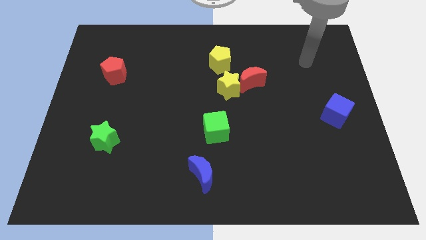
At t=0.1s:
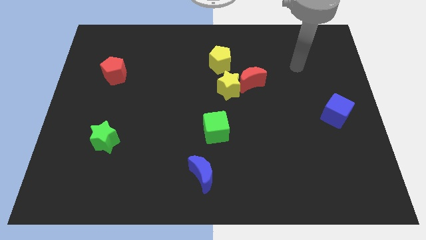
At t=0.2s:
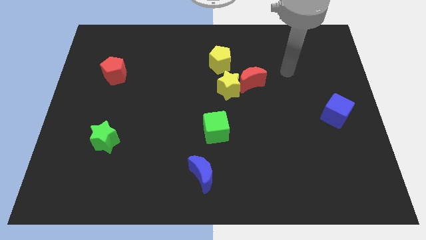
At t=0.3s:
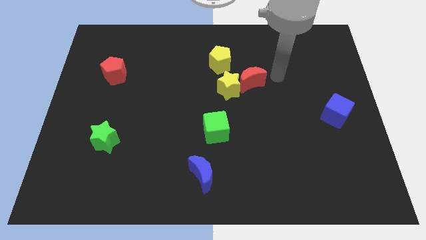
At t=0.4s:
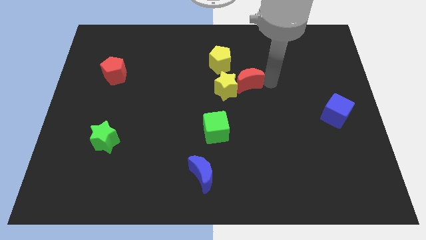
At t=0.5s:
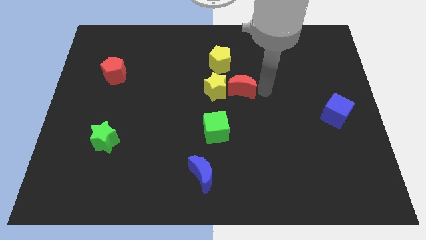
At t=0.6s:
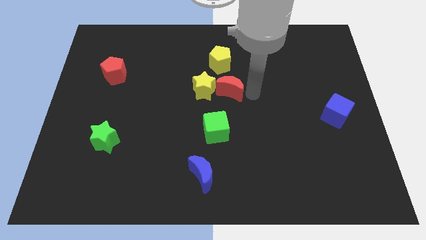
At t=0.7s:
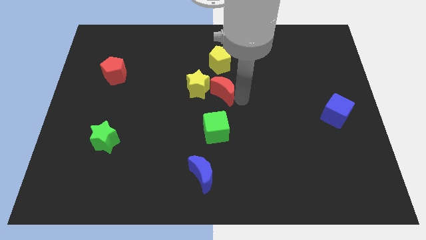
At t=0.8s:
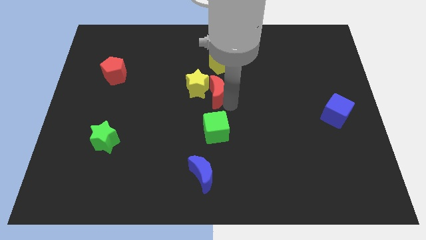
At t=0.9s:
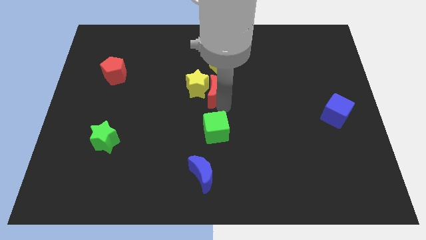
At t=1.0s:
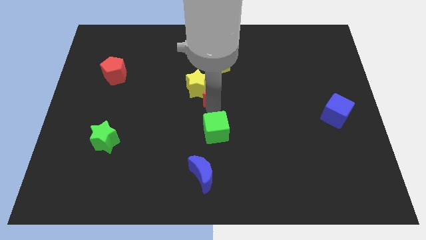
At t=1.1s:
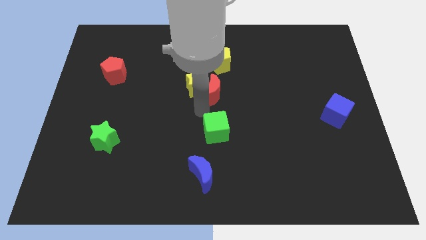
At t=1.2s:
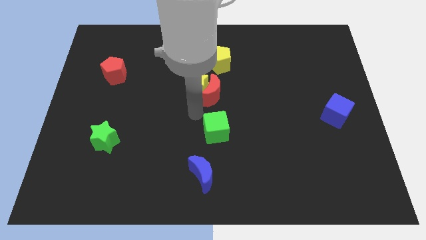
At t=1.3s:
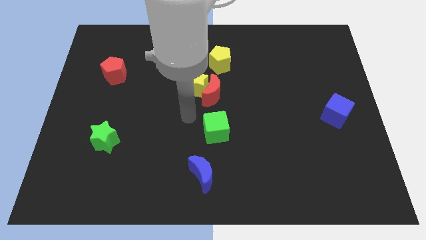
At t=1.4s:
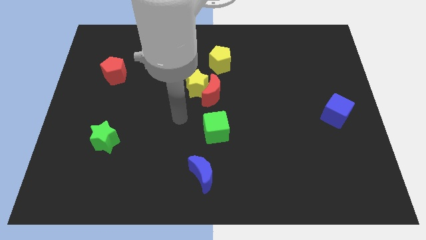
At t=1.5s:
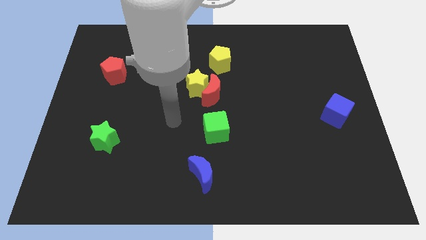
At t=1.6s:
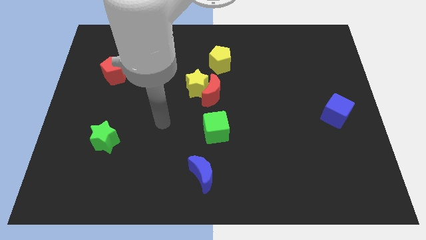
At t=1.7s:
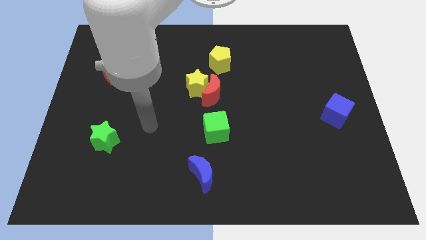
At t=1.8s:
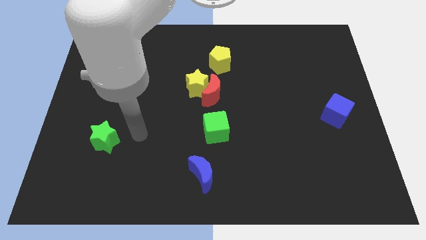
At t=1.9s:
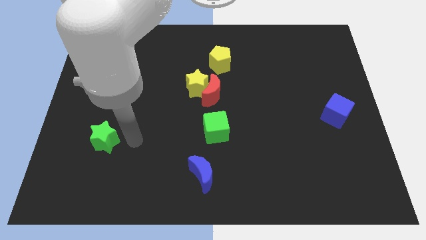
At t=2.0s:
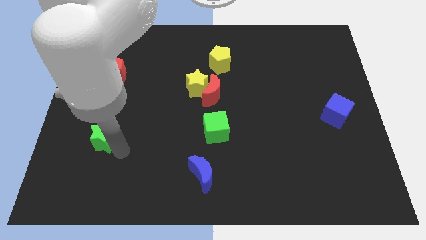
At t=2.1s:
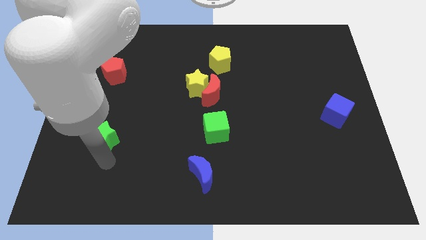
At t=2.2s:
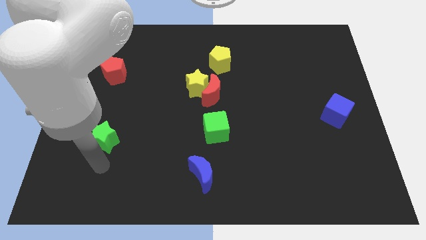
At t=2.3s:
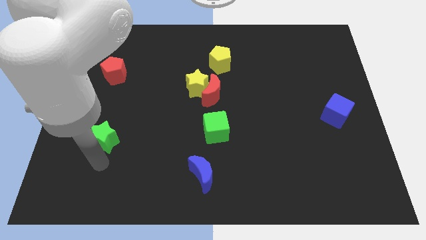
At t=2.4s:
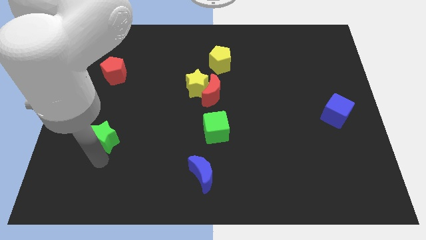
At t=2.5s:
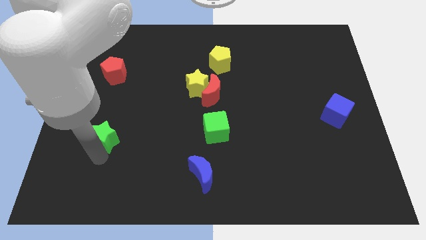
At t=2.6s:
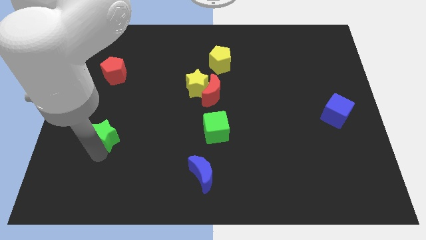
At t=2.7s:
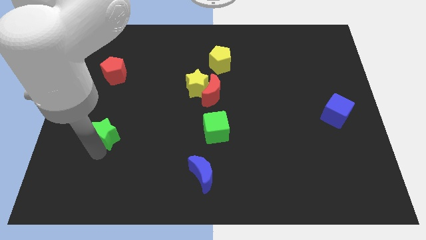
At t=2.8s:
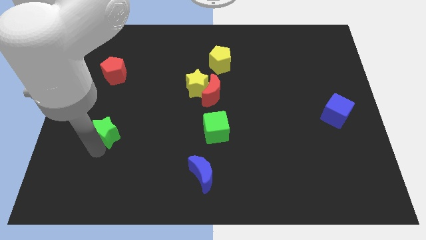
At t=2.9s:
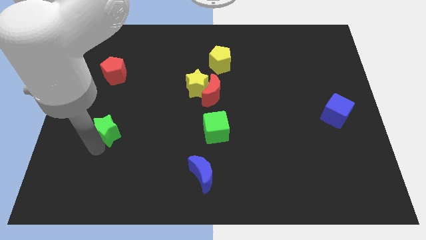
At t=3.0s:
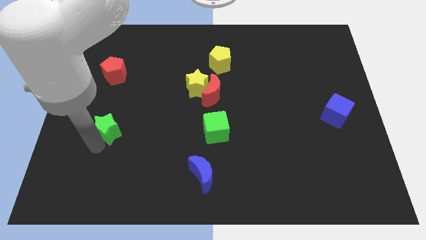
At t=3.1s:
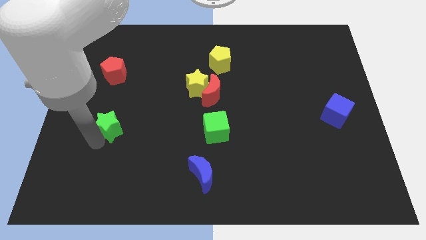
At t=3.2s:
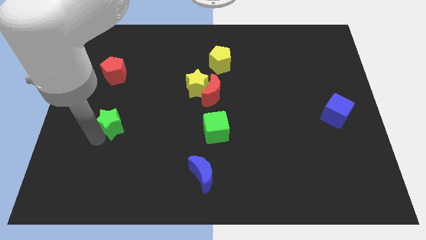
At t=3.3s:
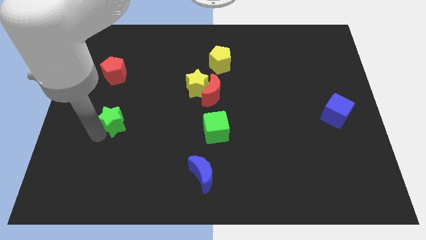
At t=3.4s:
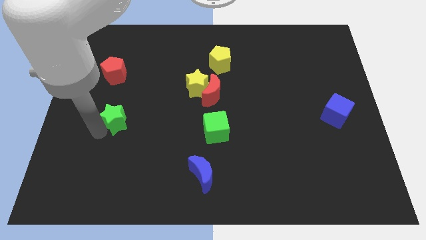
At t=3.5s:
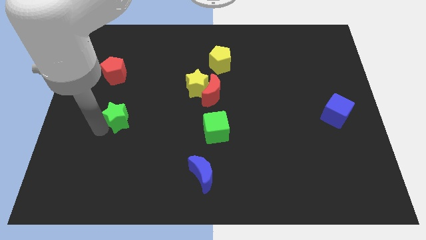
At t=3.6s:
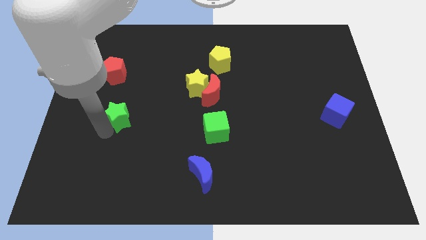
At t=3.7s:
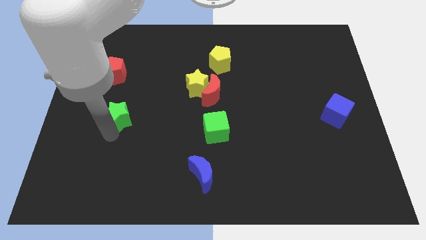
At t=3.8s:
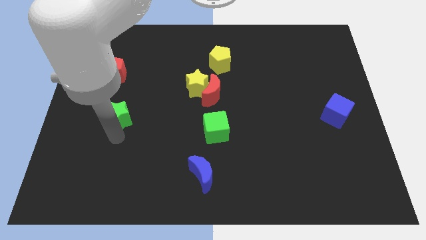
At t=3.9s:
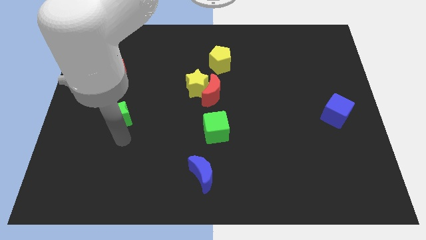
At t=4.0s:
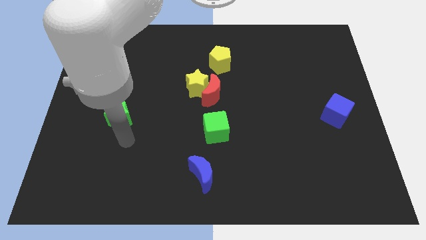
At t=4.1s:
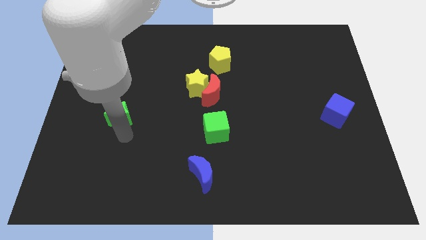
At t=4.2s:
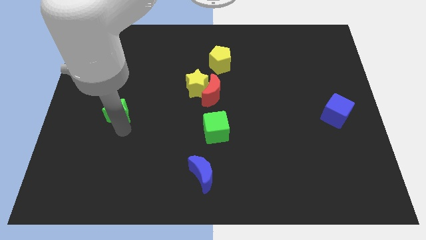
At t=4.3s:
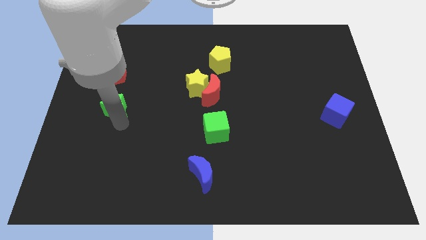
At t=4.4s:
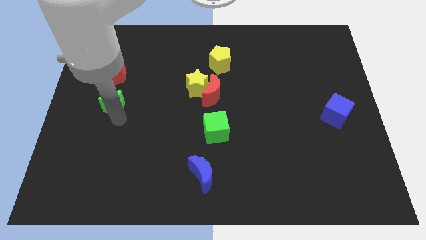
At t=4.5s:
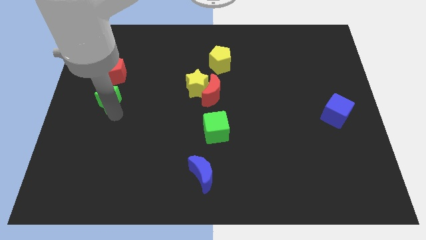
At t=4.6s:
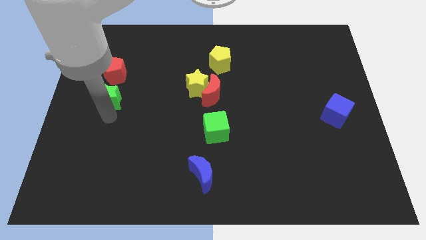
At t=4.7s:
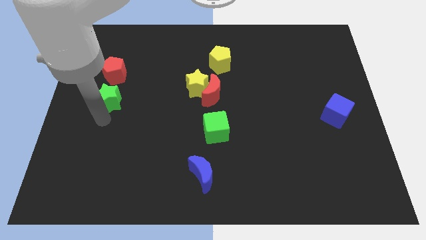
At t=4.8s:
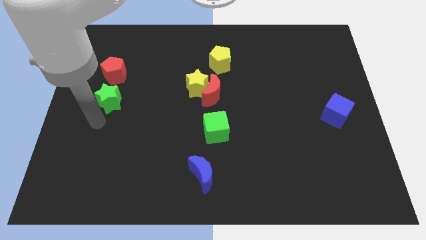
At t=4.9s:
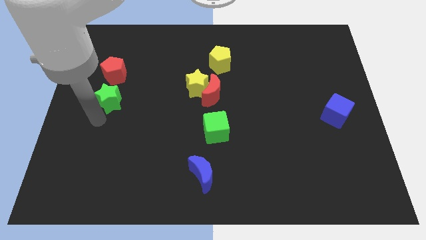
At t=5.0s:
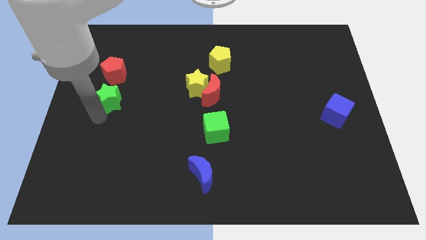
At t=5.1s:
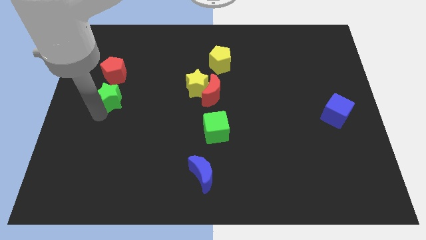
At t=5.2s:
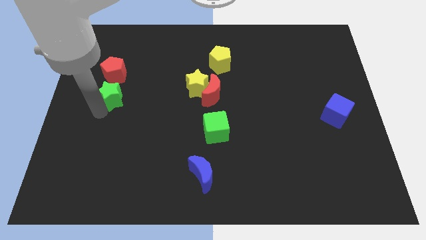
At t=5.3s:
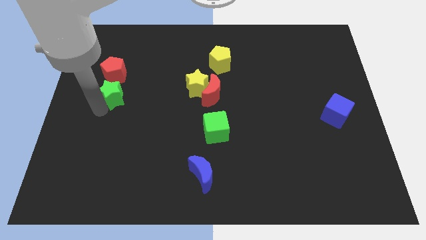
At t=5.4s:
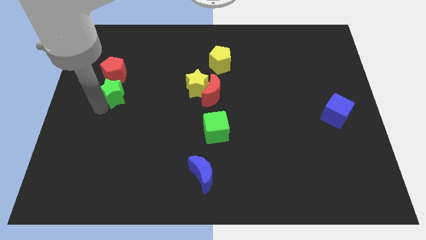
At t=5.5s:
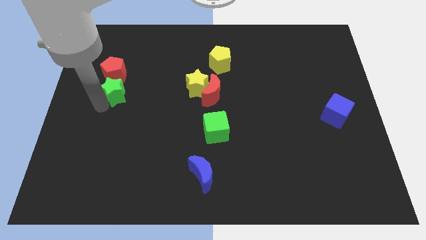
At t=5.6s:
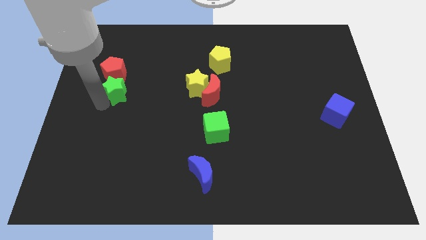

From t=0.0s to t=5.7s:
move the green star to the red pentagon
